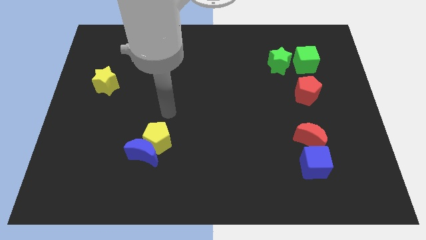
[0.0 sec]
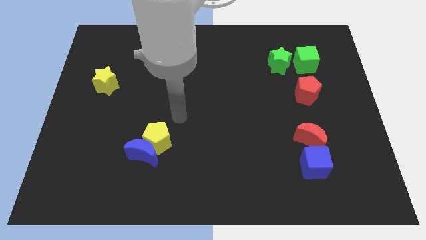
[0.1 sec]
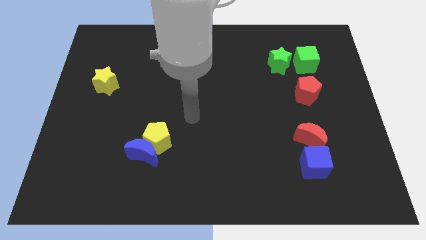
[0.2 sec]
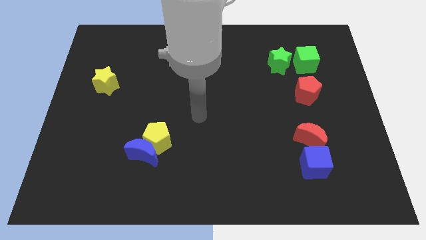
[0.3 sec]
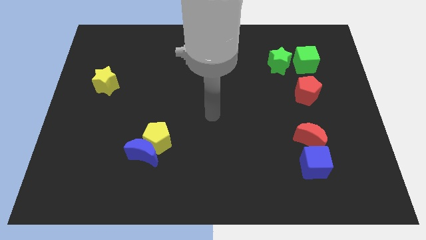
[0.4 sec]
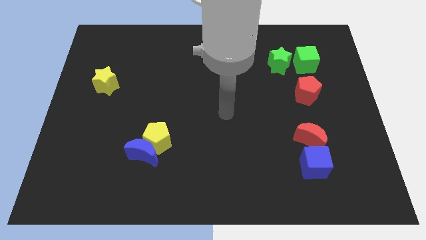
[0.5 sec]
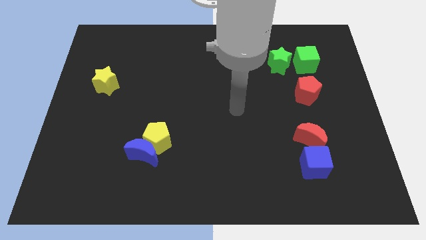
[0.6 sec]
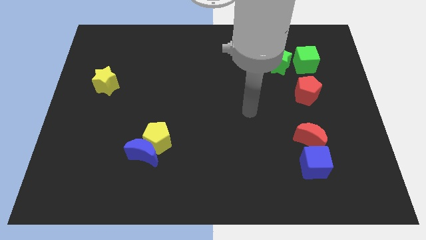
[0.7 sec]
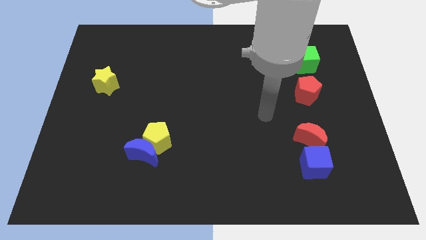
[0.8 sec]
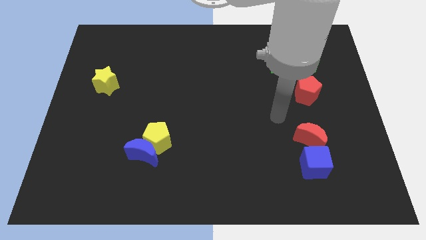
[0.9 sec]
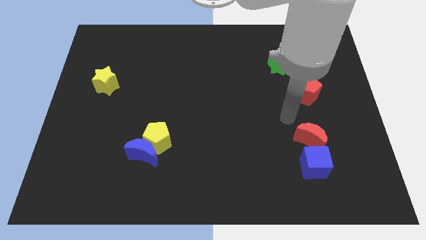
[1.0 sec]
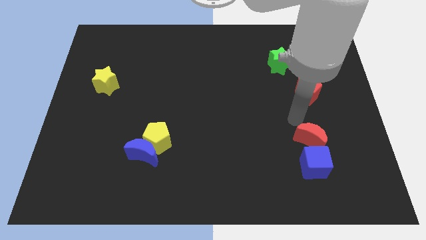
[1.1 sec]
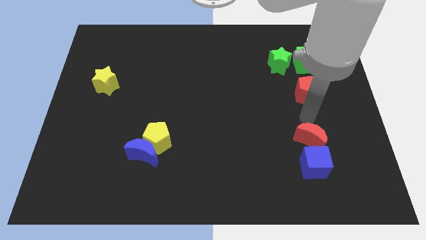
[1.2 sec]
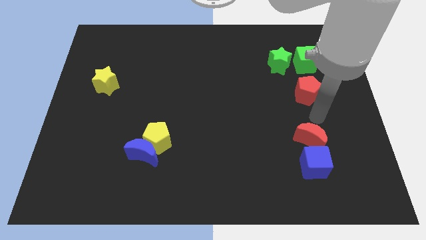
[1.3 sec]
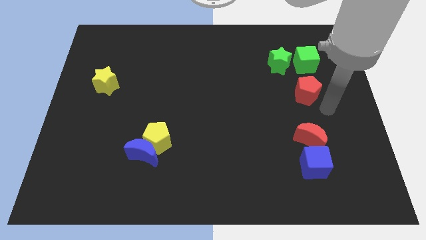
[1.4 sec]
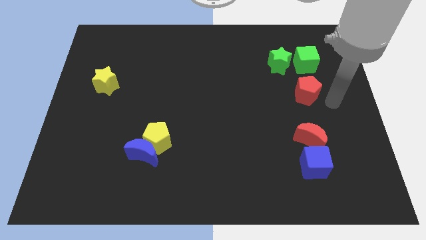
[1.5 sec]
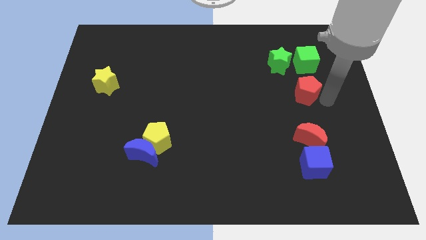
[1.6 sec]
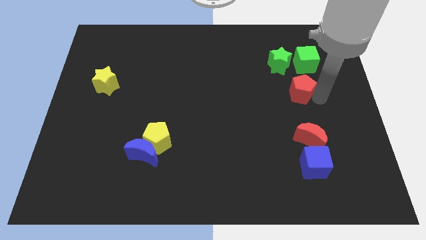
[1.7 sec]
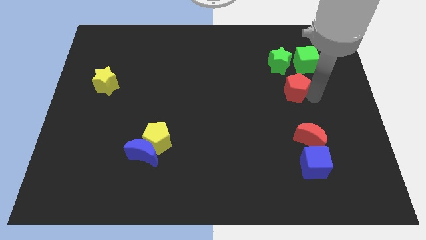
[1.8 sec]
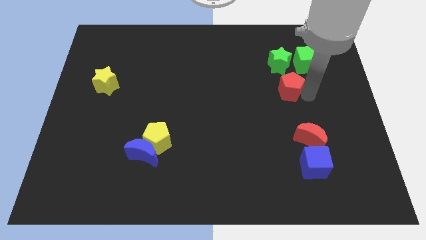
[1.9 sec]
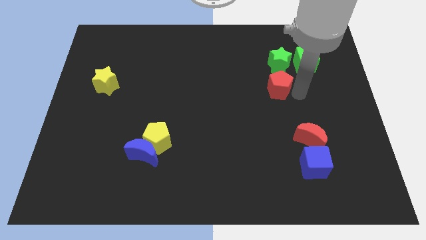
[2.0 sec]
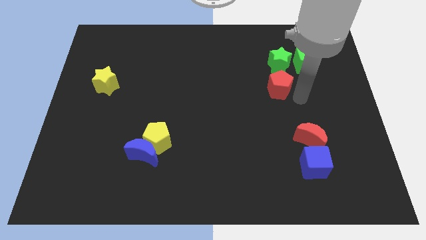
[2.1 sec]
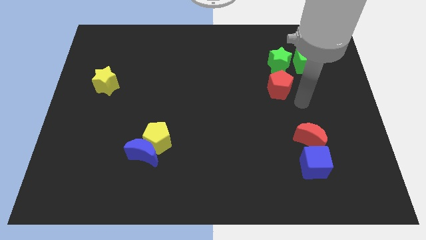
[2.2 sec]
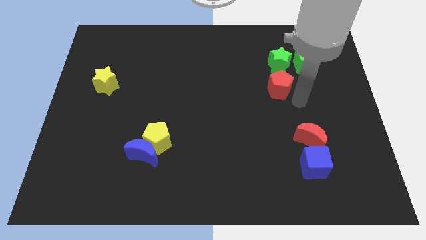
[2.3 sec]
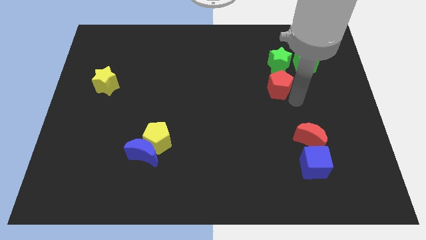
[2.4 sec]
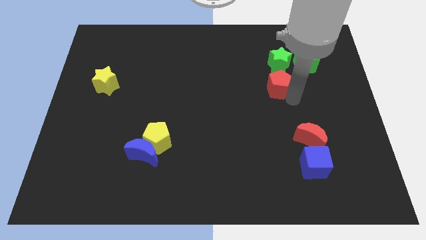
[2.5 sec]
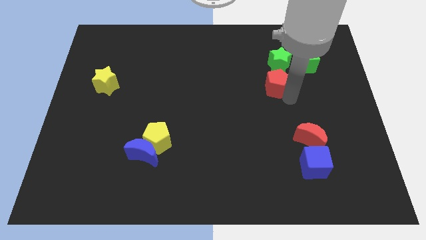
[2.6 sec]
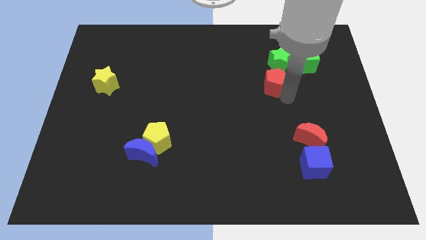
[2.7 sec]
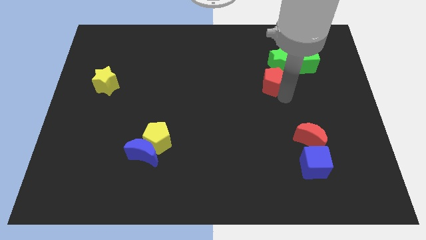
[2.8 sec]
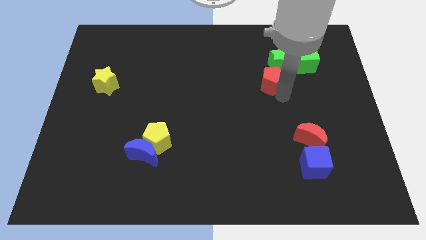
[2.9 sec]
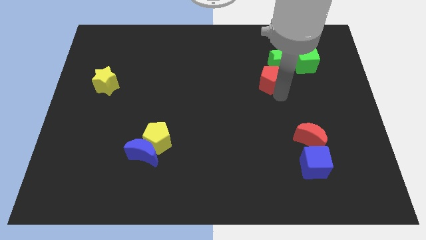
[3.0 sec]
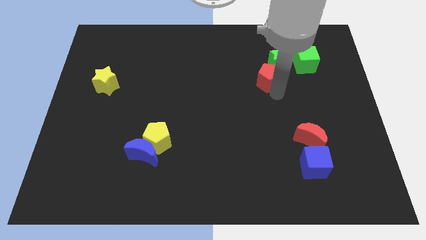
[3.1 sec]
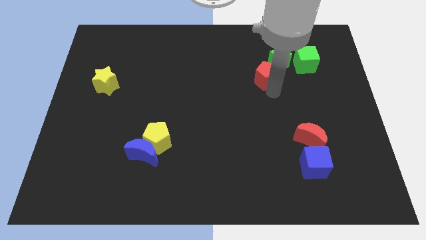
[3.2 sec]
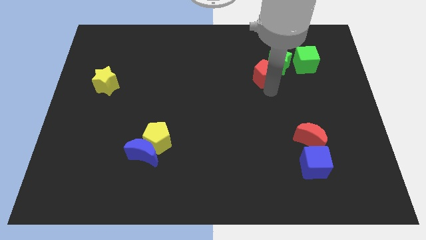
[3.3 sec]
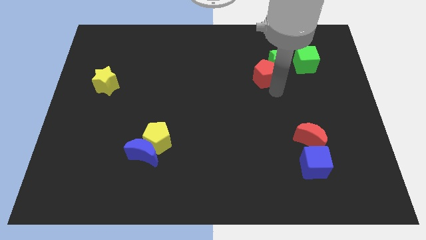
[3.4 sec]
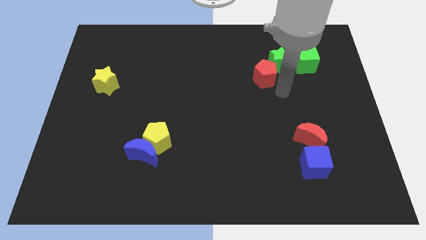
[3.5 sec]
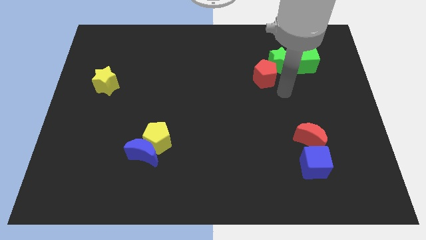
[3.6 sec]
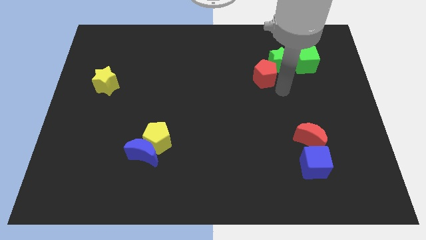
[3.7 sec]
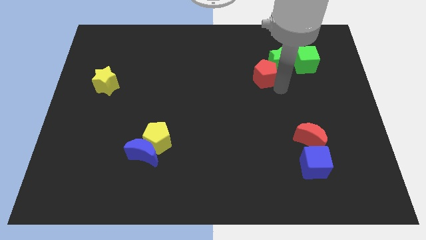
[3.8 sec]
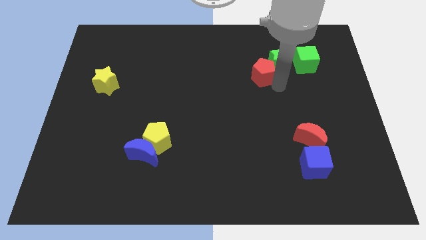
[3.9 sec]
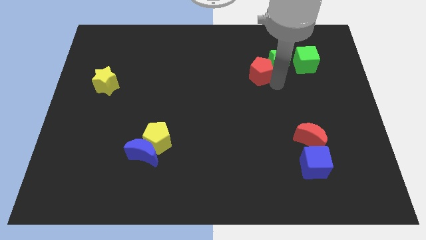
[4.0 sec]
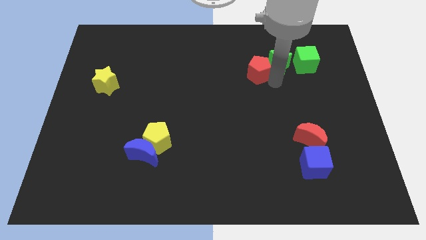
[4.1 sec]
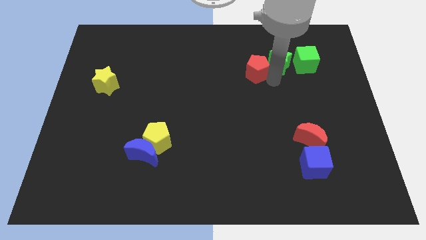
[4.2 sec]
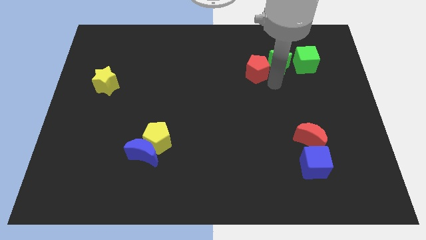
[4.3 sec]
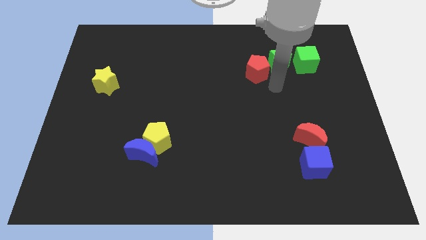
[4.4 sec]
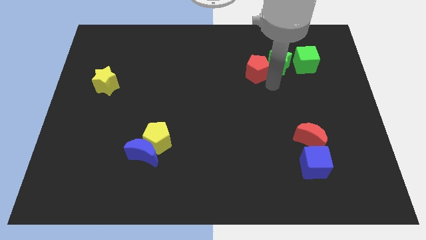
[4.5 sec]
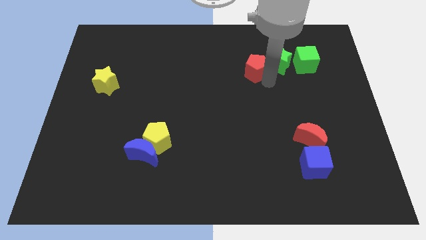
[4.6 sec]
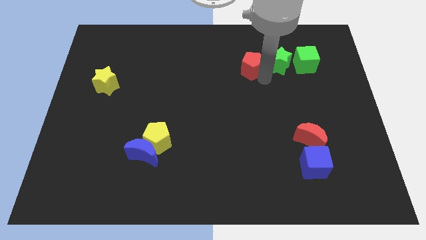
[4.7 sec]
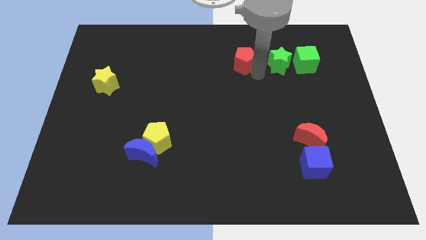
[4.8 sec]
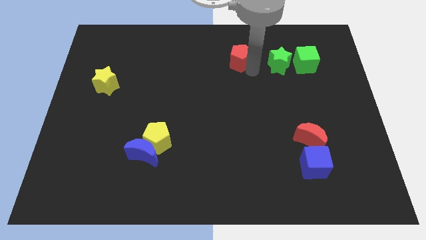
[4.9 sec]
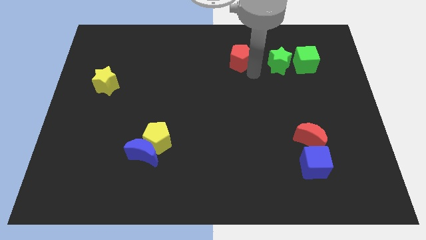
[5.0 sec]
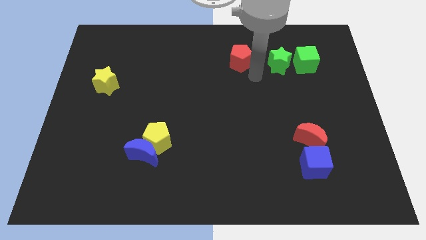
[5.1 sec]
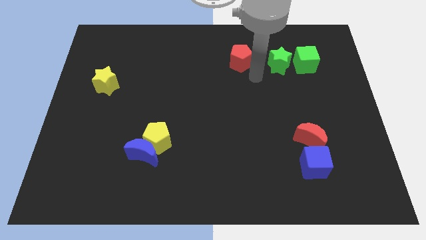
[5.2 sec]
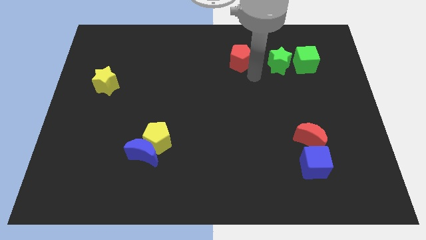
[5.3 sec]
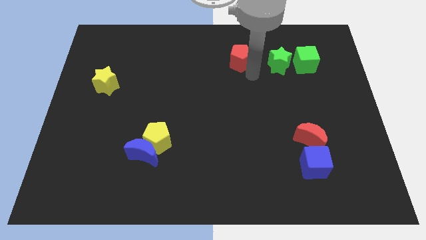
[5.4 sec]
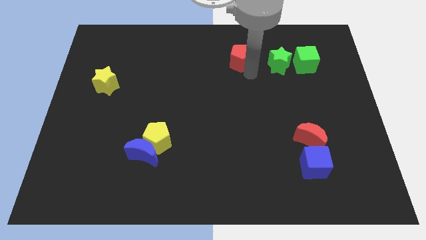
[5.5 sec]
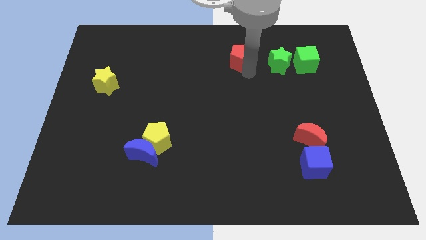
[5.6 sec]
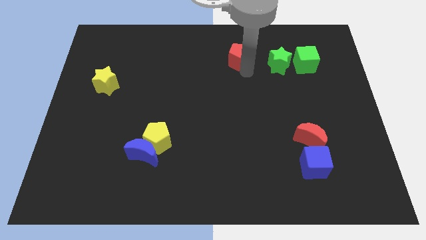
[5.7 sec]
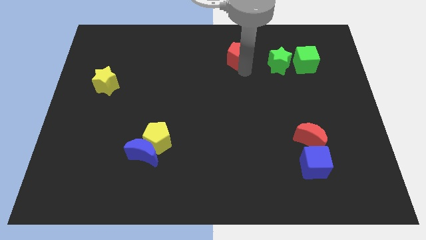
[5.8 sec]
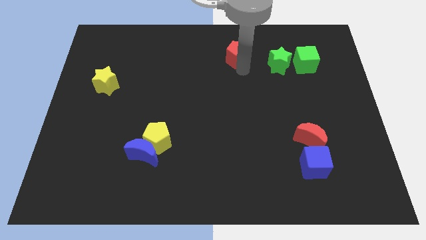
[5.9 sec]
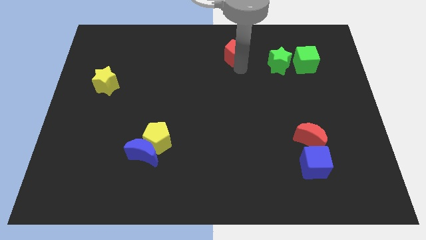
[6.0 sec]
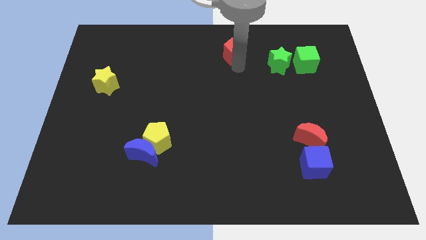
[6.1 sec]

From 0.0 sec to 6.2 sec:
push the red pentagon to the towards your base

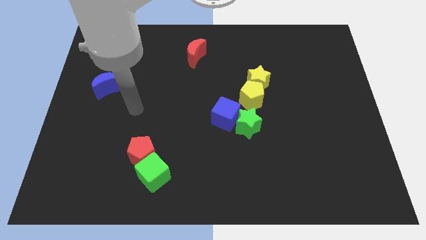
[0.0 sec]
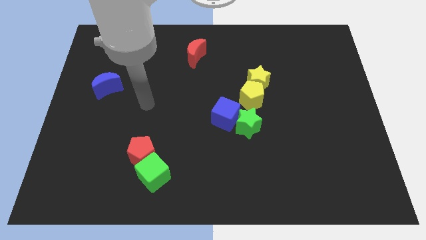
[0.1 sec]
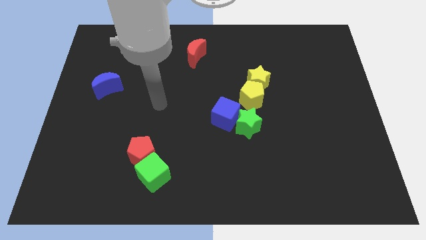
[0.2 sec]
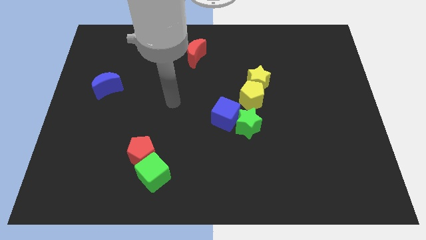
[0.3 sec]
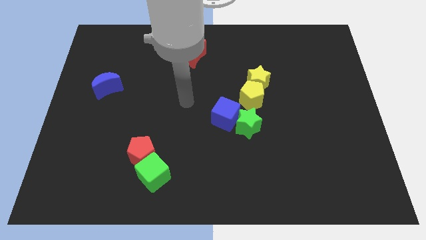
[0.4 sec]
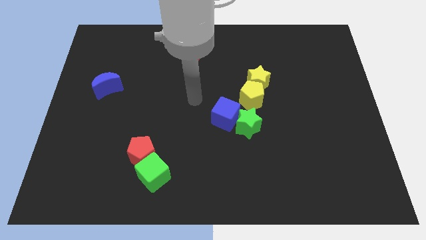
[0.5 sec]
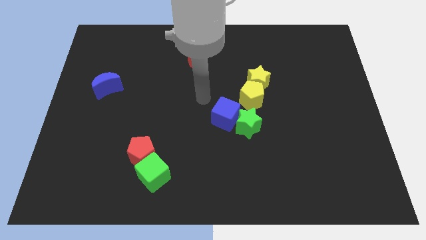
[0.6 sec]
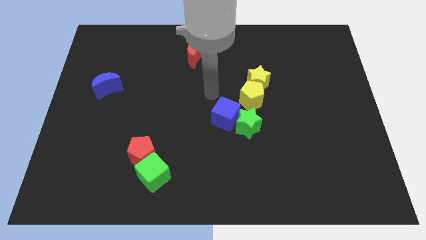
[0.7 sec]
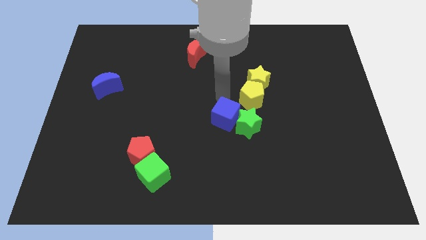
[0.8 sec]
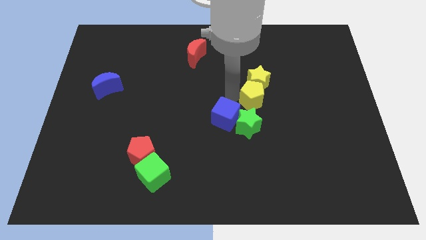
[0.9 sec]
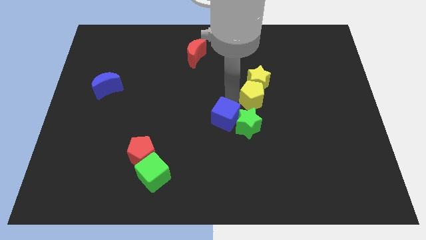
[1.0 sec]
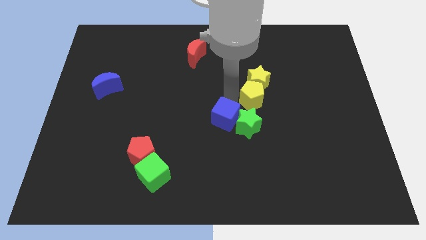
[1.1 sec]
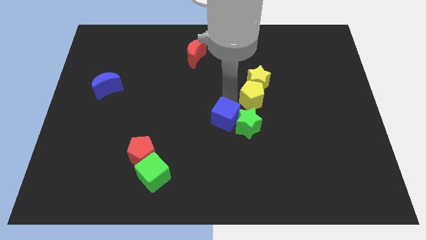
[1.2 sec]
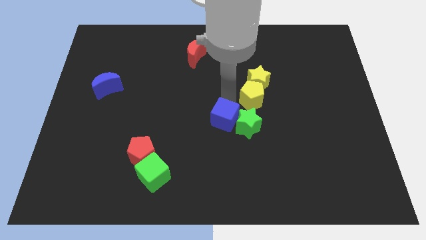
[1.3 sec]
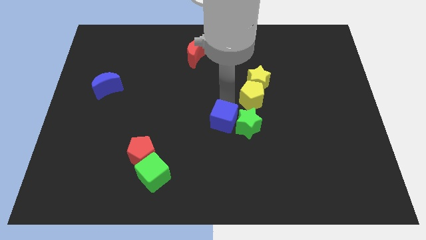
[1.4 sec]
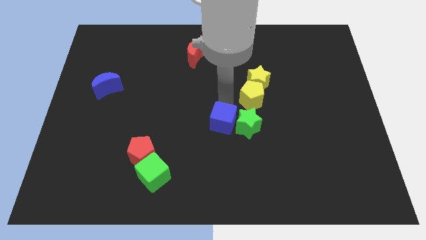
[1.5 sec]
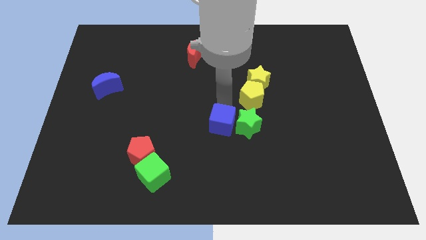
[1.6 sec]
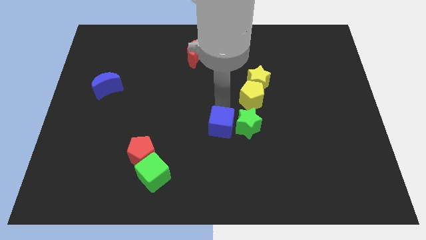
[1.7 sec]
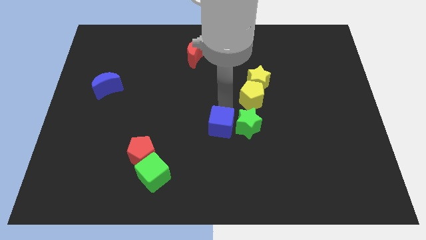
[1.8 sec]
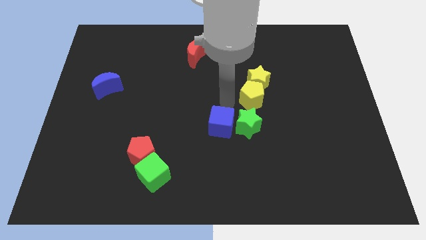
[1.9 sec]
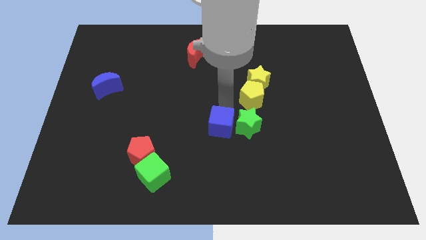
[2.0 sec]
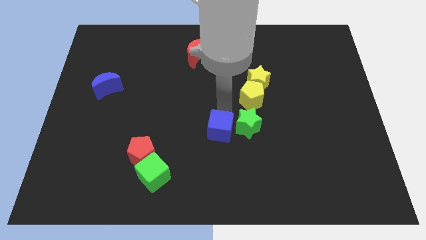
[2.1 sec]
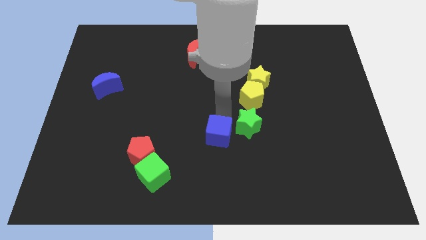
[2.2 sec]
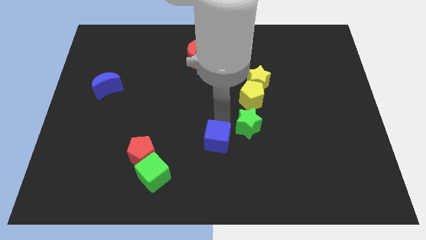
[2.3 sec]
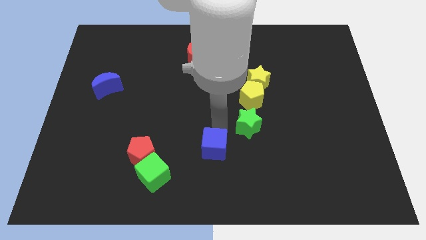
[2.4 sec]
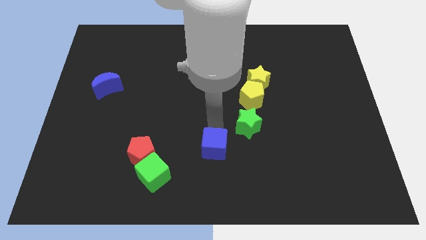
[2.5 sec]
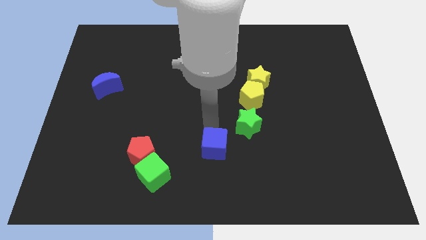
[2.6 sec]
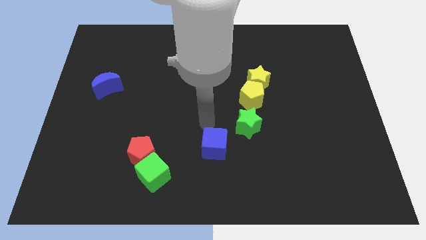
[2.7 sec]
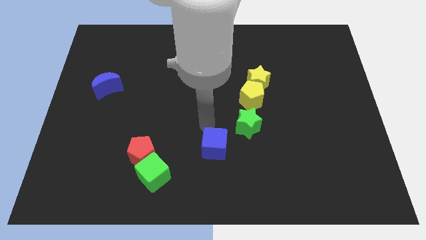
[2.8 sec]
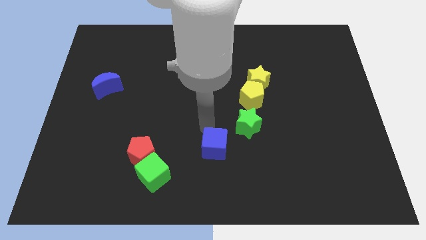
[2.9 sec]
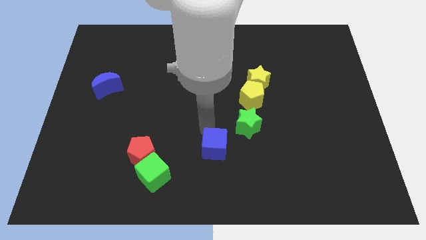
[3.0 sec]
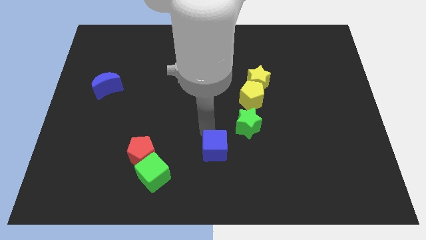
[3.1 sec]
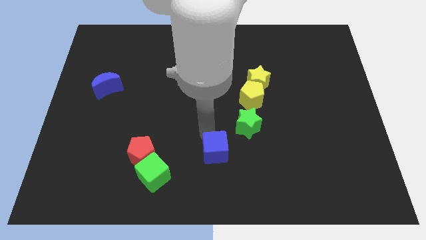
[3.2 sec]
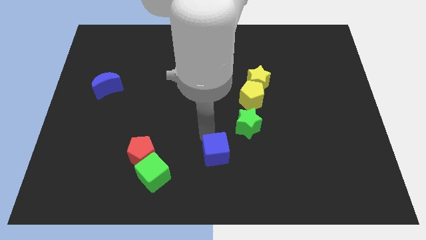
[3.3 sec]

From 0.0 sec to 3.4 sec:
put the blue cube to the bottom
